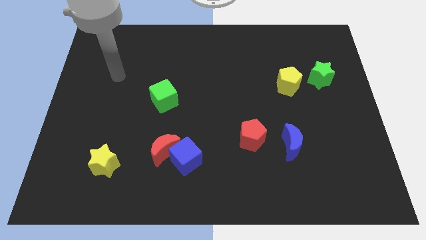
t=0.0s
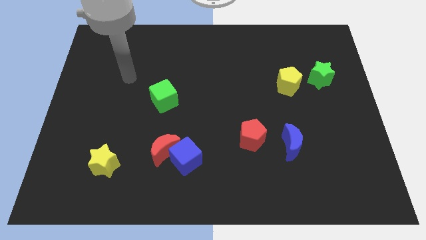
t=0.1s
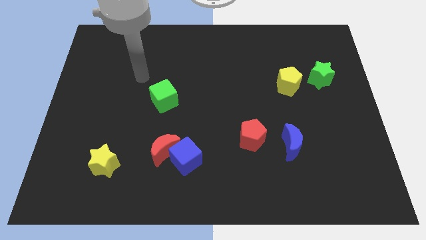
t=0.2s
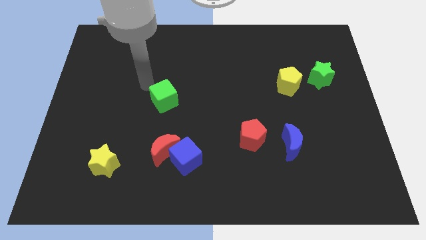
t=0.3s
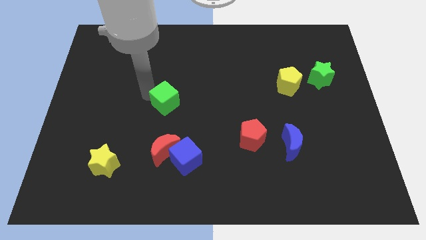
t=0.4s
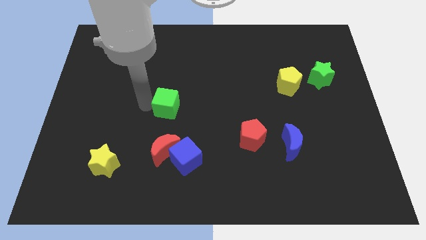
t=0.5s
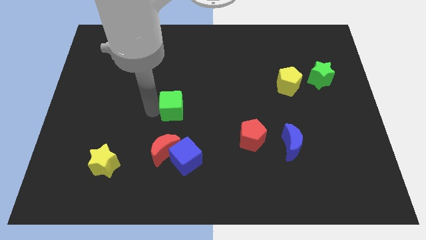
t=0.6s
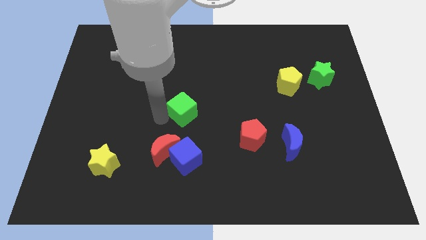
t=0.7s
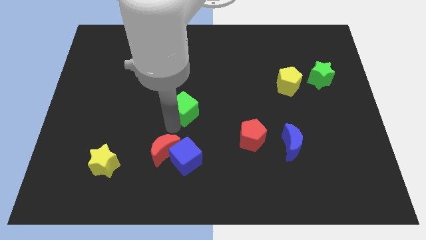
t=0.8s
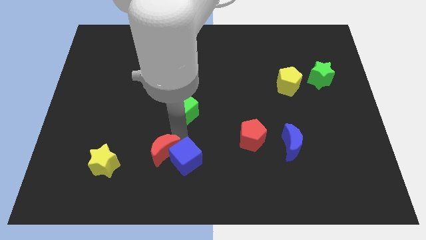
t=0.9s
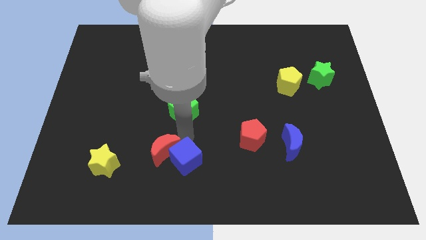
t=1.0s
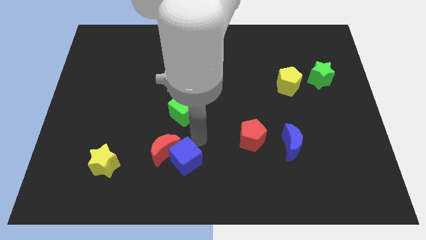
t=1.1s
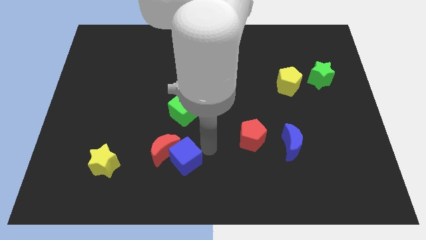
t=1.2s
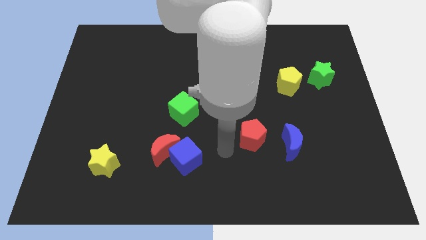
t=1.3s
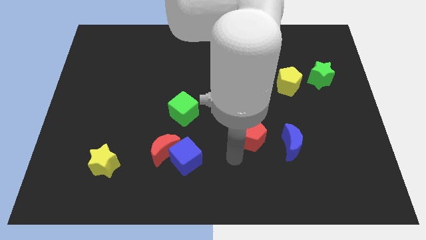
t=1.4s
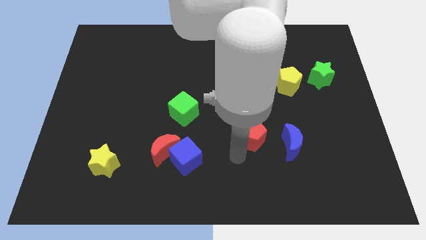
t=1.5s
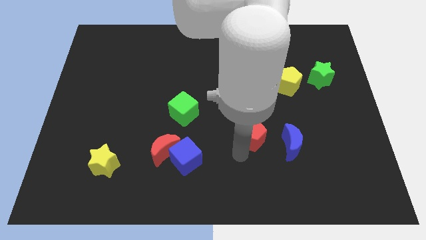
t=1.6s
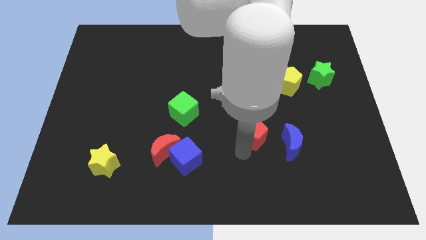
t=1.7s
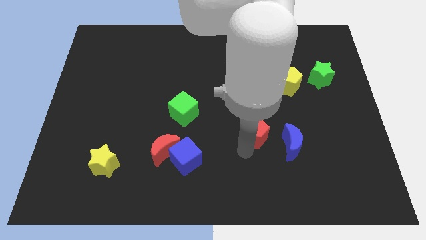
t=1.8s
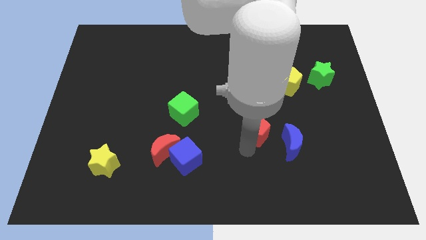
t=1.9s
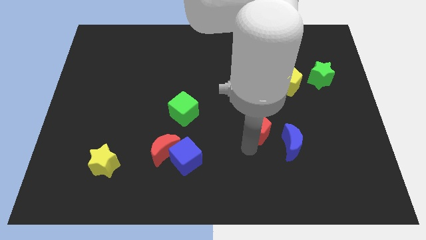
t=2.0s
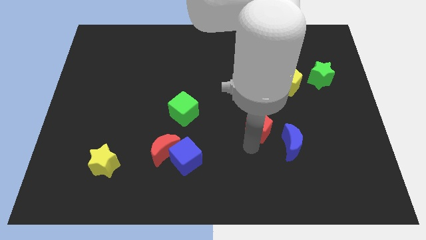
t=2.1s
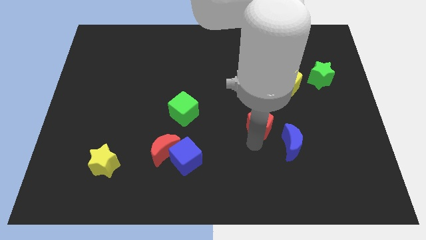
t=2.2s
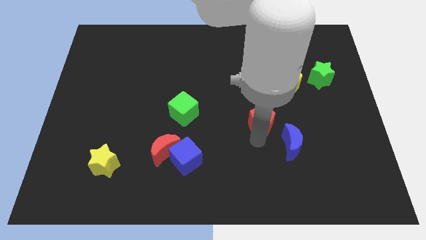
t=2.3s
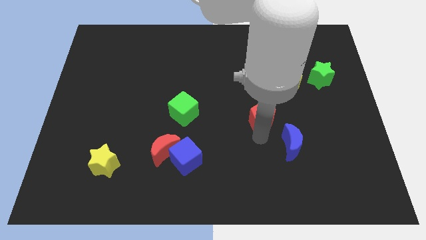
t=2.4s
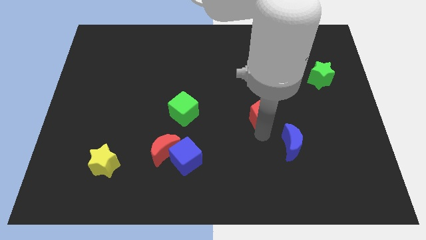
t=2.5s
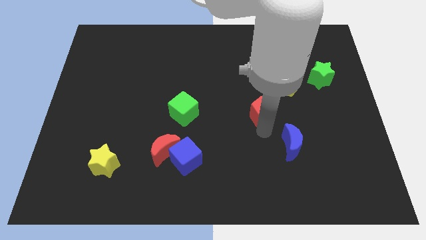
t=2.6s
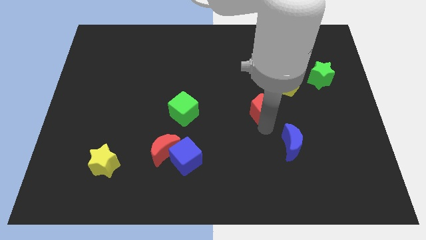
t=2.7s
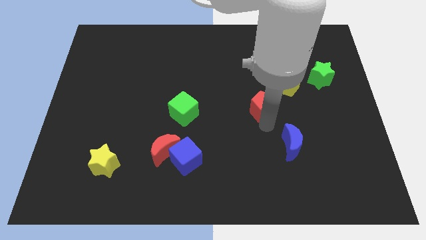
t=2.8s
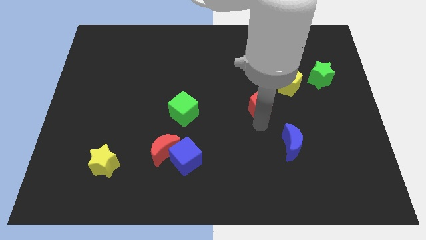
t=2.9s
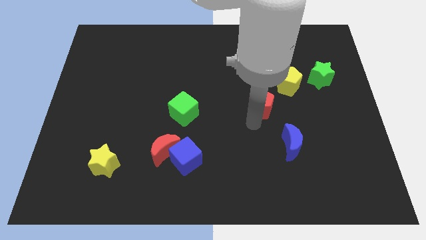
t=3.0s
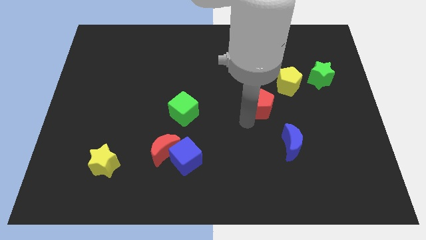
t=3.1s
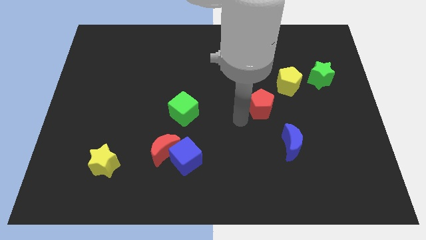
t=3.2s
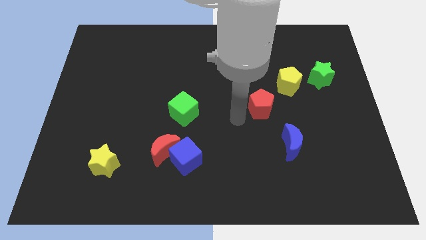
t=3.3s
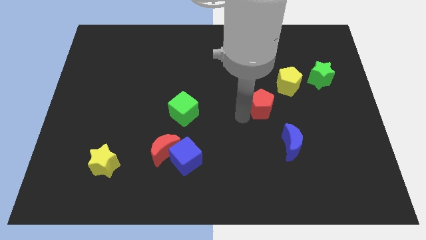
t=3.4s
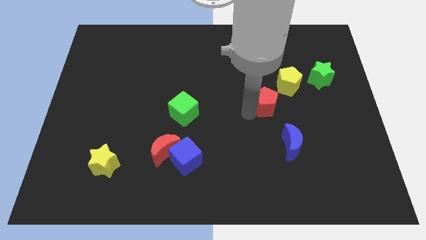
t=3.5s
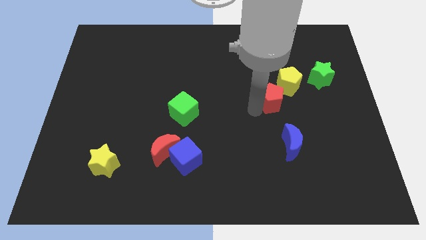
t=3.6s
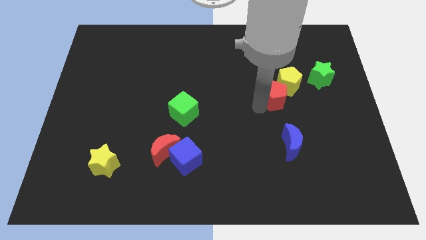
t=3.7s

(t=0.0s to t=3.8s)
move the red pentagon close to the yellow pentagon

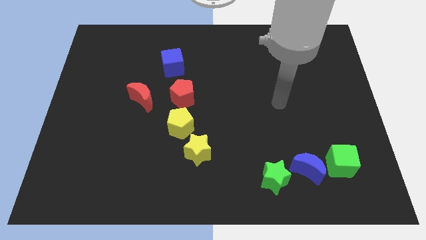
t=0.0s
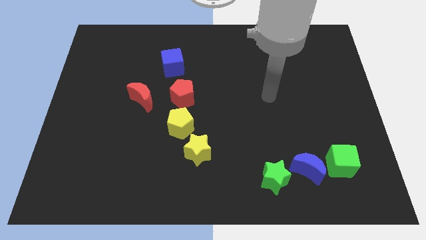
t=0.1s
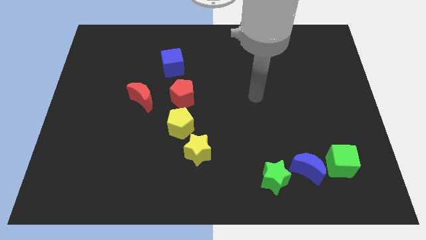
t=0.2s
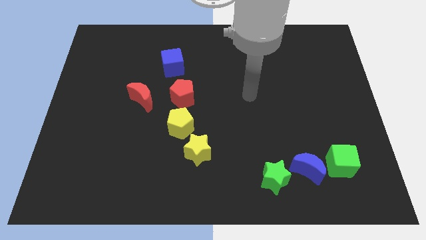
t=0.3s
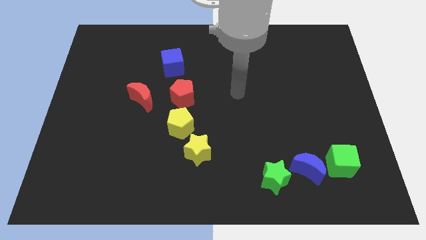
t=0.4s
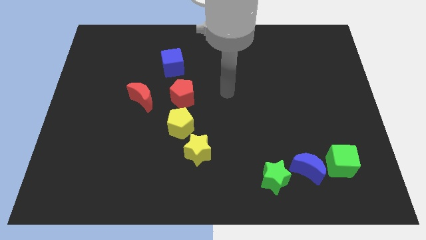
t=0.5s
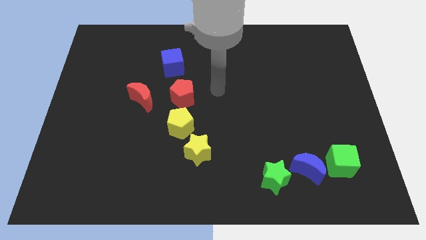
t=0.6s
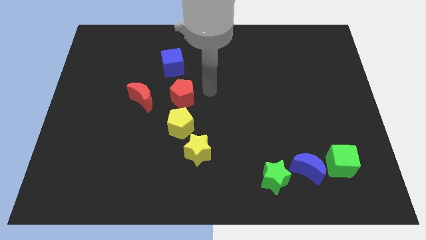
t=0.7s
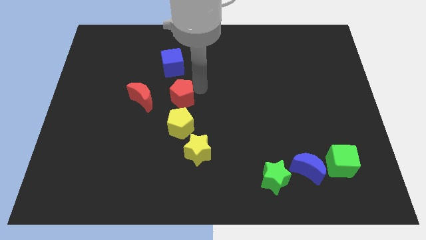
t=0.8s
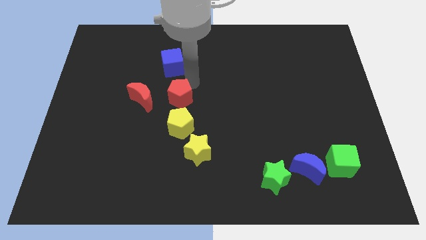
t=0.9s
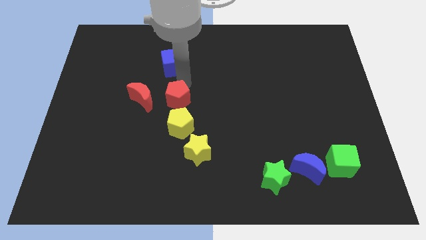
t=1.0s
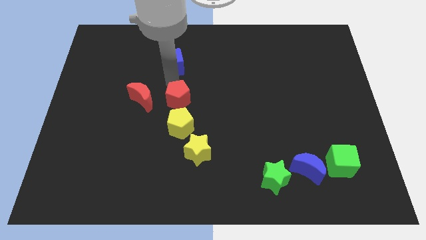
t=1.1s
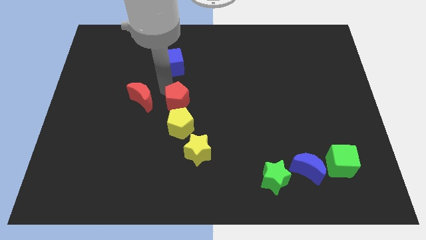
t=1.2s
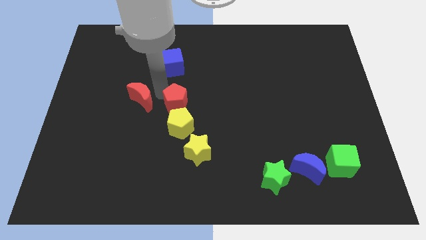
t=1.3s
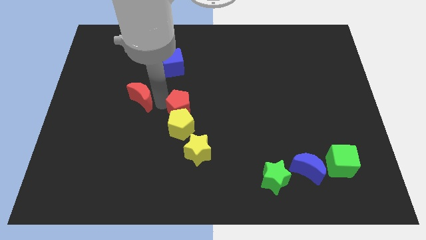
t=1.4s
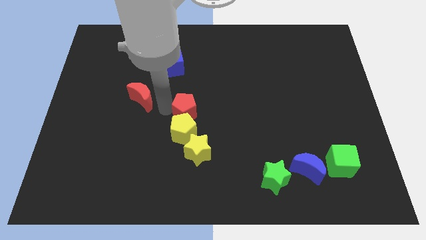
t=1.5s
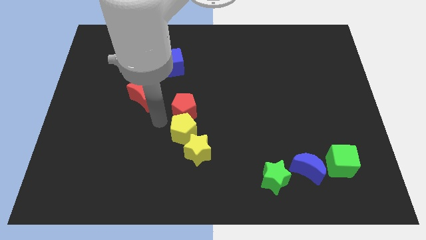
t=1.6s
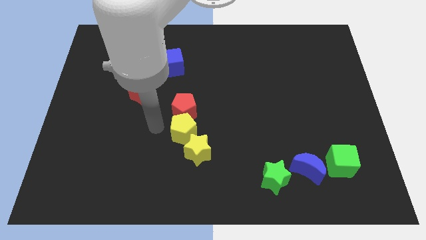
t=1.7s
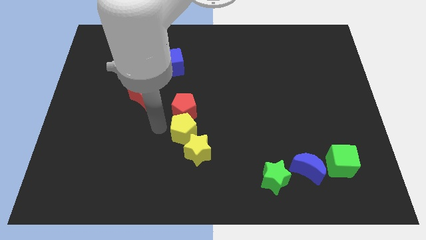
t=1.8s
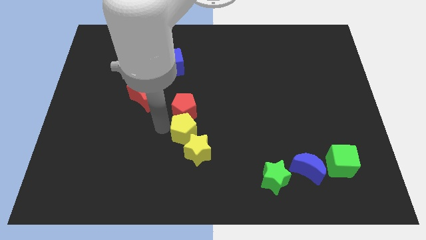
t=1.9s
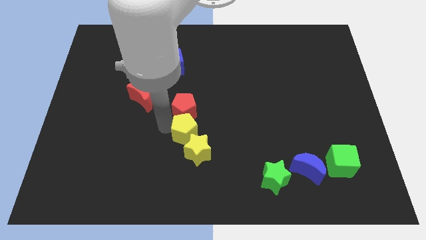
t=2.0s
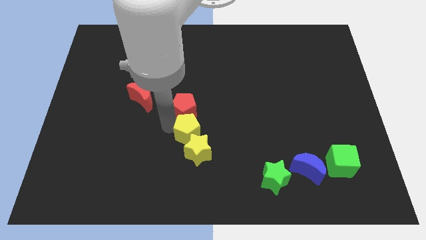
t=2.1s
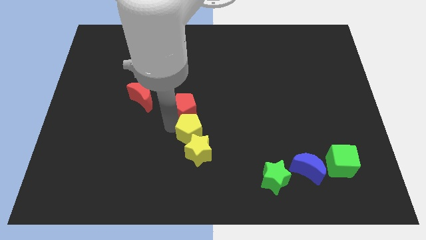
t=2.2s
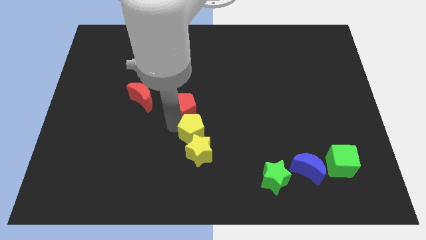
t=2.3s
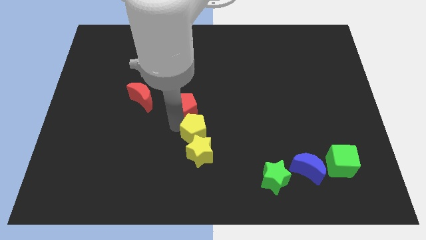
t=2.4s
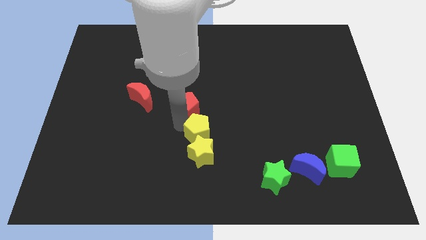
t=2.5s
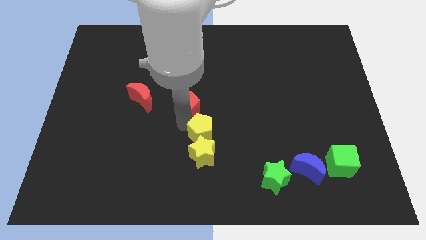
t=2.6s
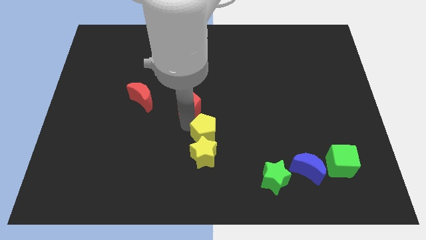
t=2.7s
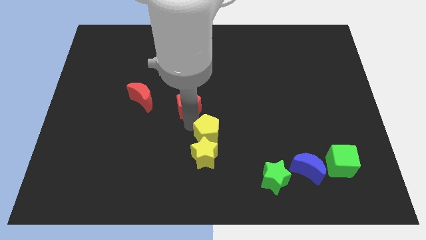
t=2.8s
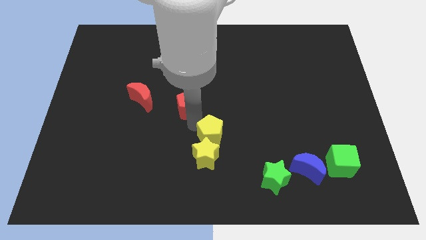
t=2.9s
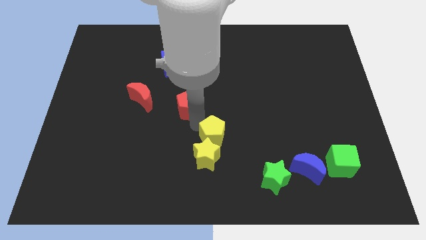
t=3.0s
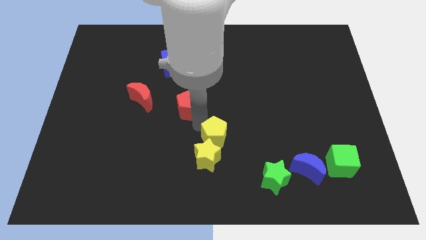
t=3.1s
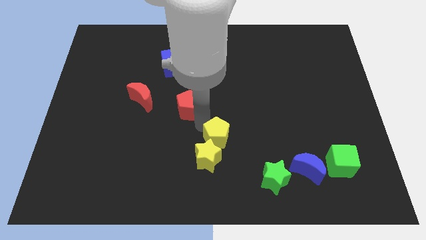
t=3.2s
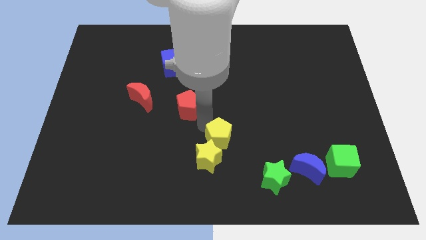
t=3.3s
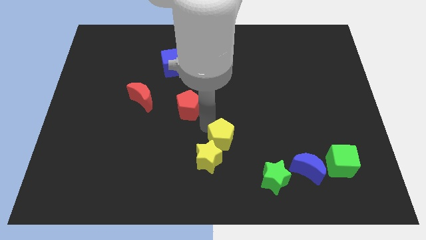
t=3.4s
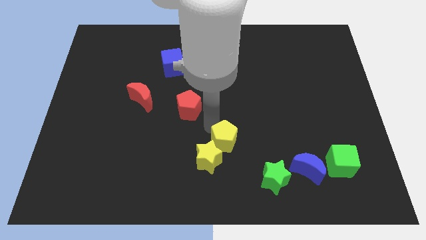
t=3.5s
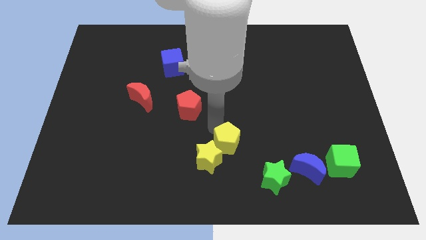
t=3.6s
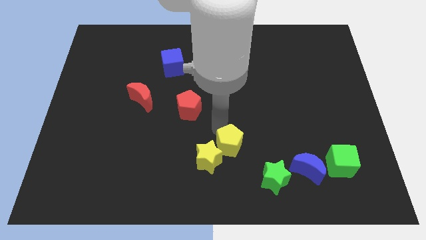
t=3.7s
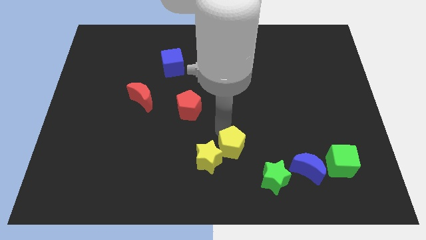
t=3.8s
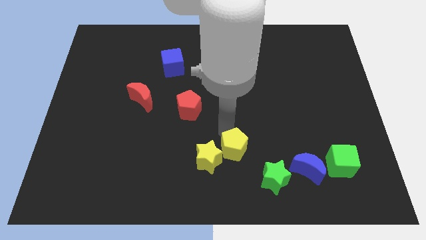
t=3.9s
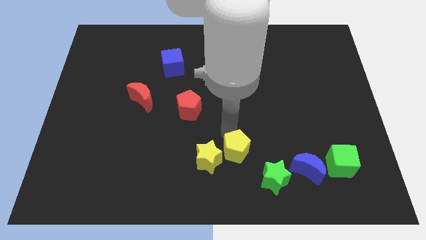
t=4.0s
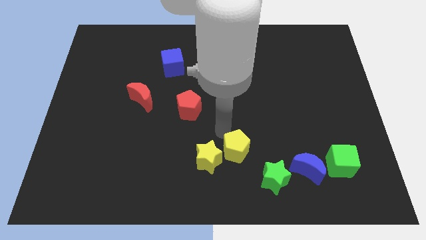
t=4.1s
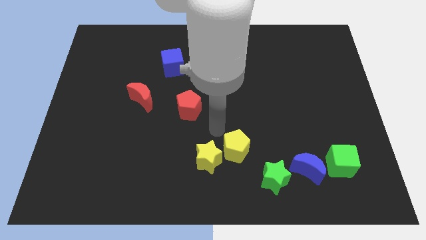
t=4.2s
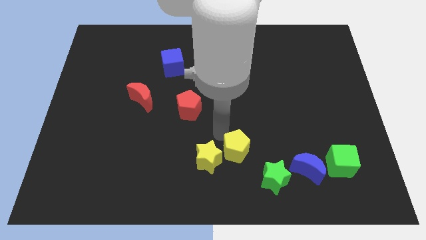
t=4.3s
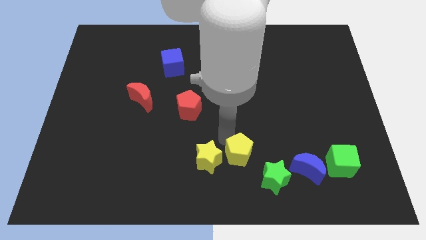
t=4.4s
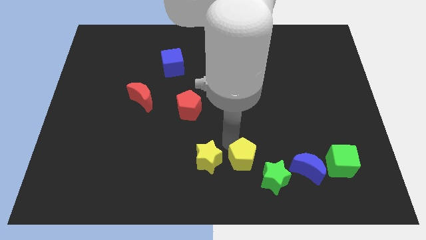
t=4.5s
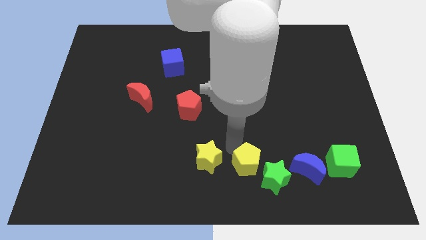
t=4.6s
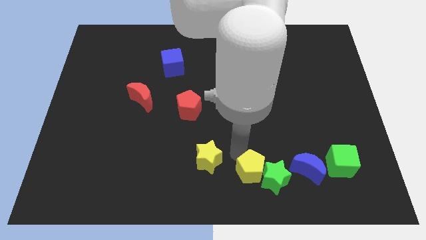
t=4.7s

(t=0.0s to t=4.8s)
move the yellow pentagon close to the green star
